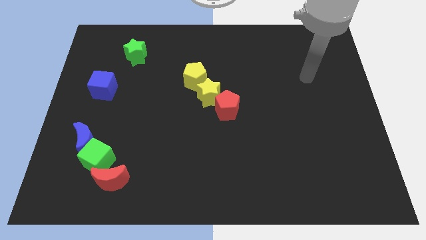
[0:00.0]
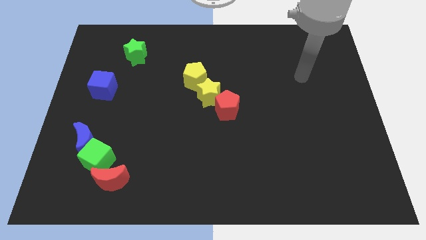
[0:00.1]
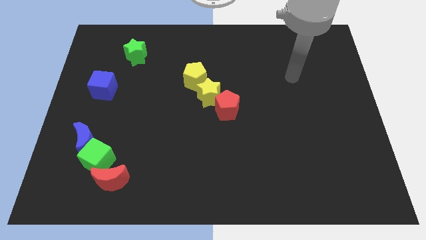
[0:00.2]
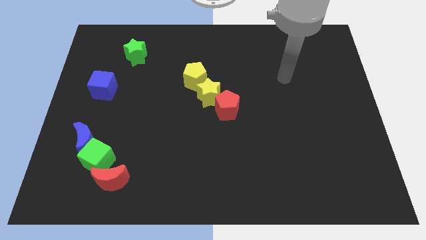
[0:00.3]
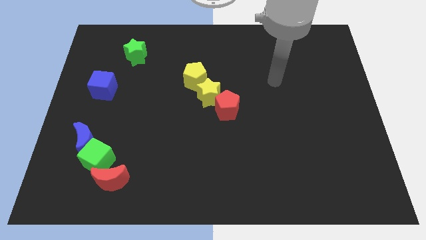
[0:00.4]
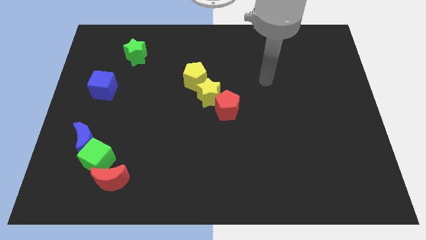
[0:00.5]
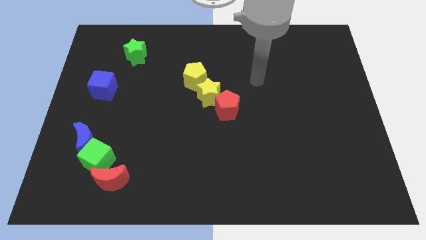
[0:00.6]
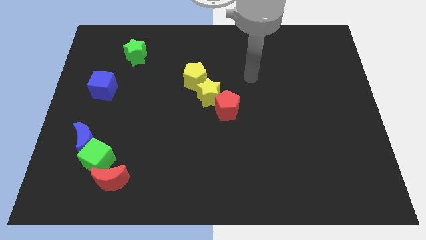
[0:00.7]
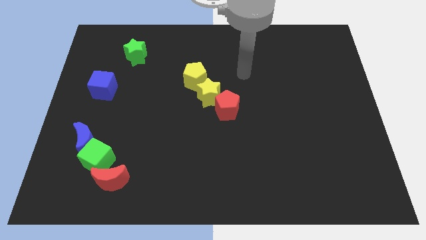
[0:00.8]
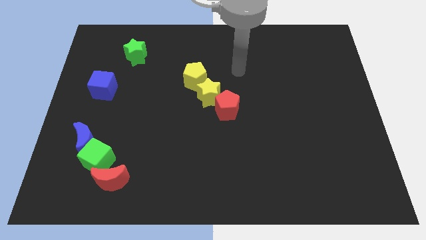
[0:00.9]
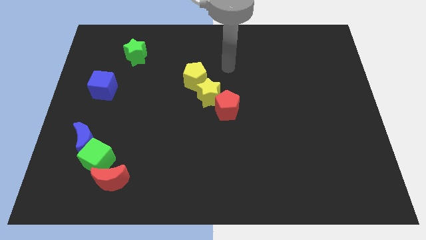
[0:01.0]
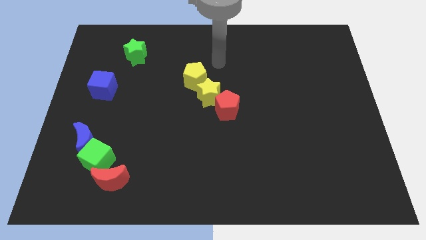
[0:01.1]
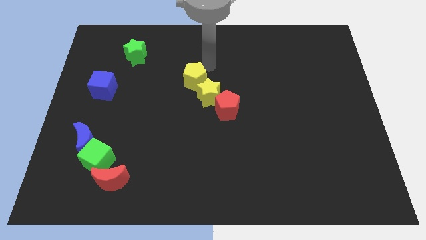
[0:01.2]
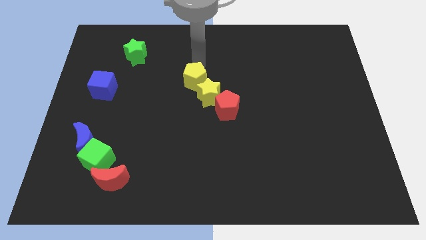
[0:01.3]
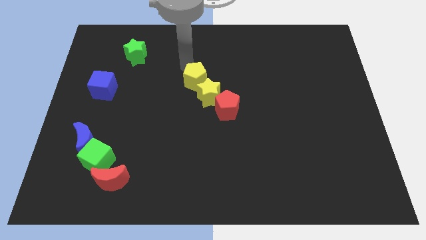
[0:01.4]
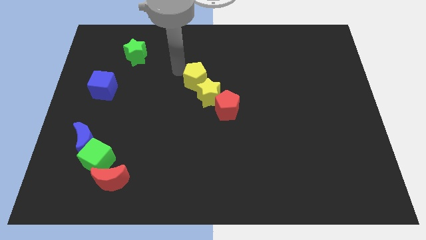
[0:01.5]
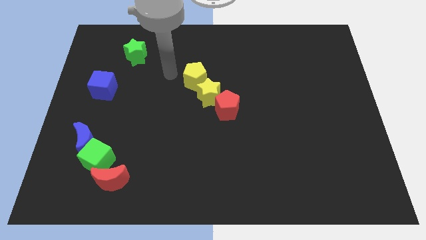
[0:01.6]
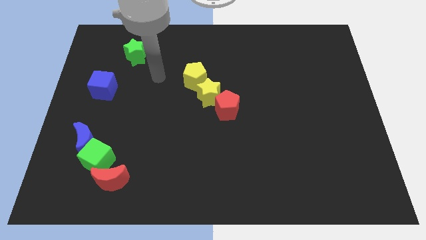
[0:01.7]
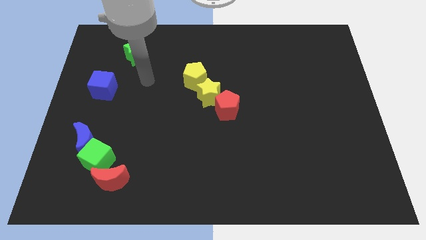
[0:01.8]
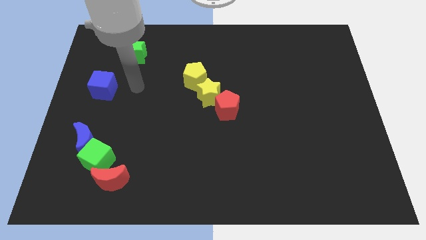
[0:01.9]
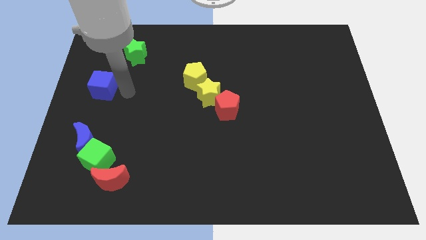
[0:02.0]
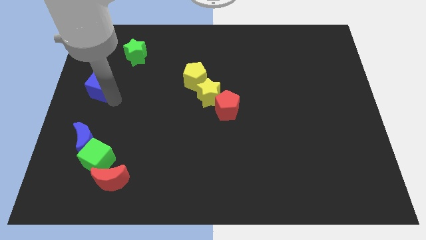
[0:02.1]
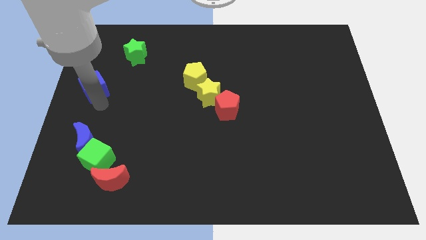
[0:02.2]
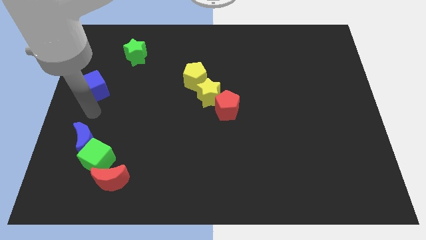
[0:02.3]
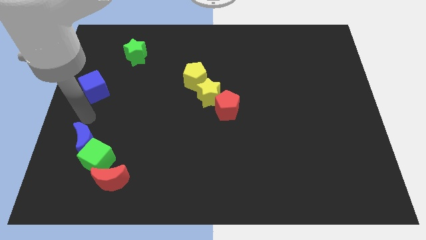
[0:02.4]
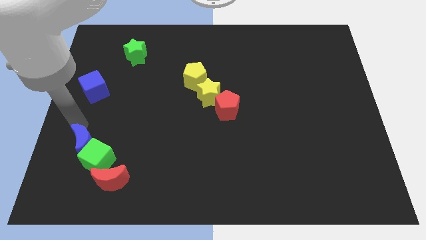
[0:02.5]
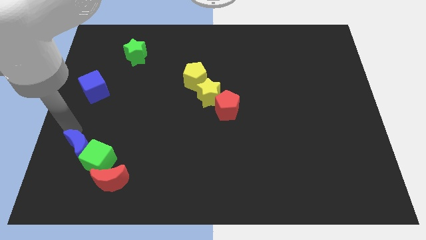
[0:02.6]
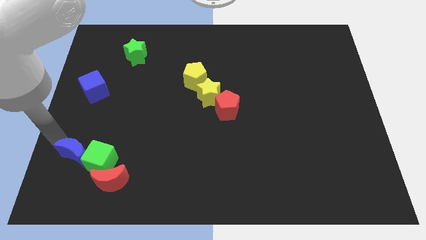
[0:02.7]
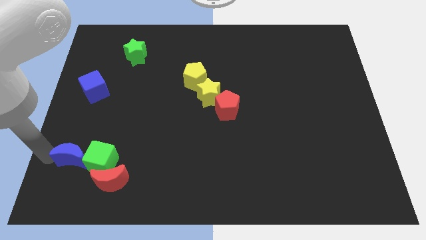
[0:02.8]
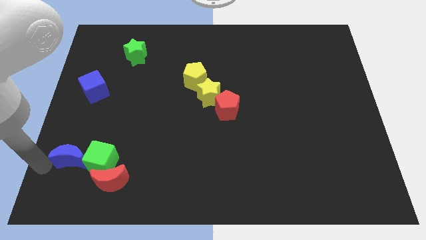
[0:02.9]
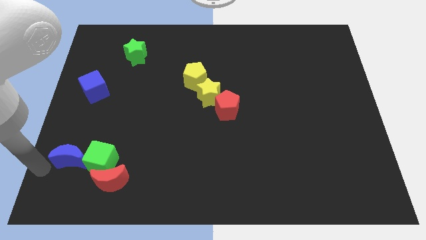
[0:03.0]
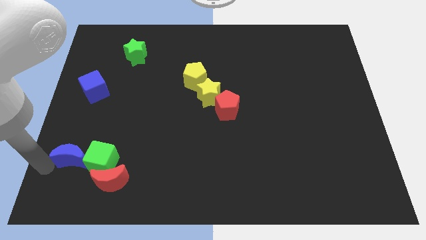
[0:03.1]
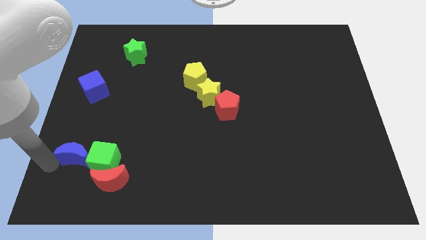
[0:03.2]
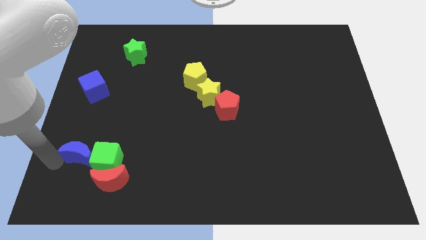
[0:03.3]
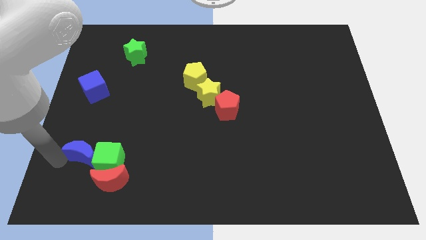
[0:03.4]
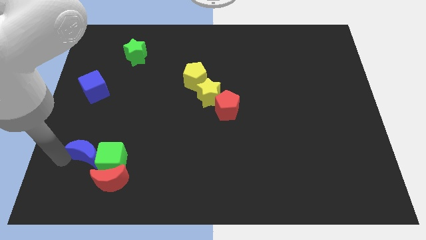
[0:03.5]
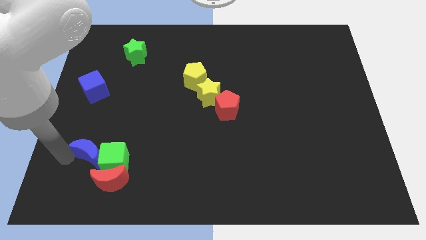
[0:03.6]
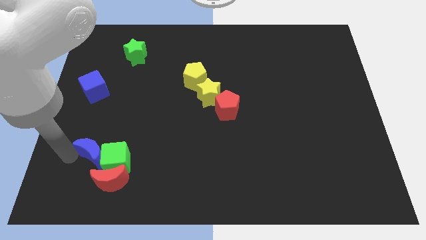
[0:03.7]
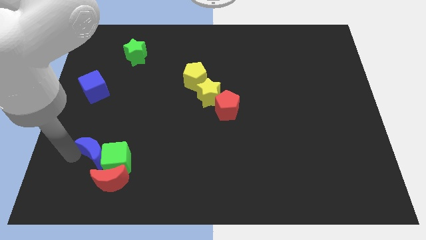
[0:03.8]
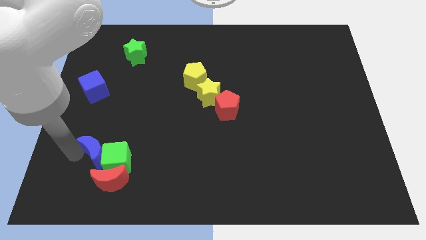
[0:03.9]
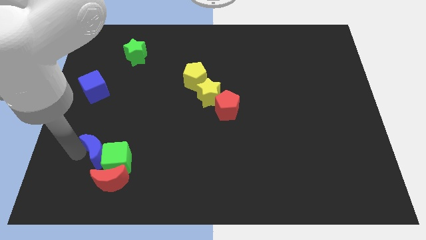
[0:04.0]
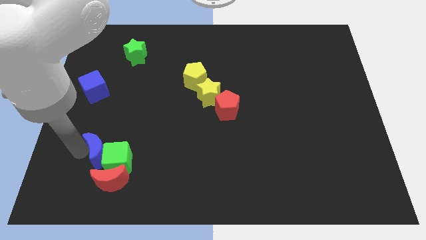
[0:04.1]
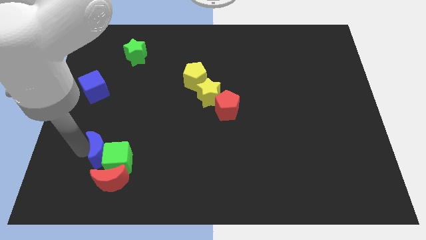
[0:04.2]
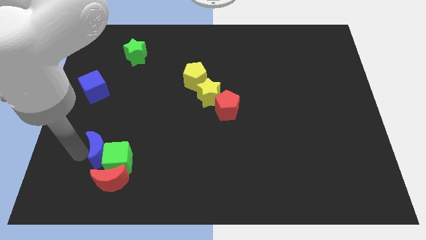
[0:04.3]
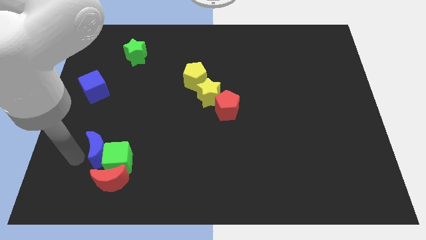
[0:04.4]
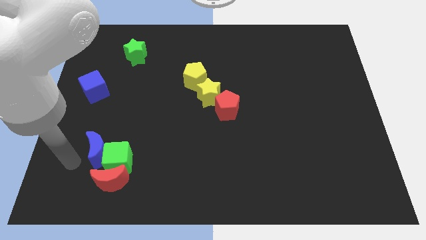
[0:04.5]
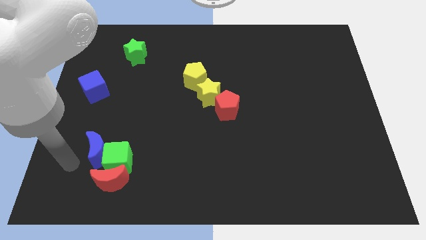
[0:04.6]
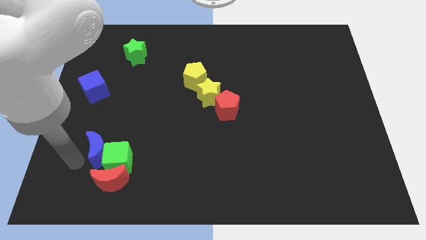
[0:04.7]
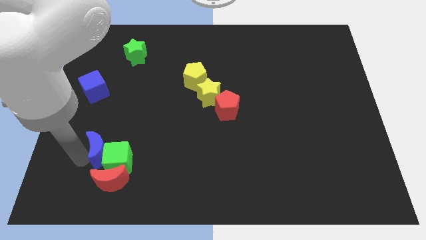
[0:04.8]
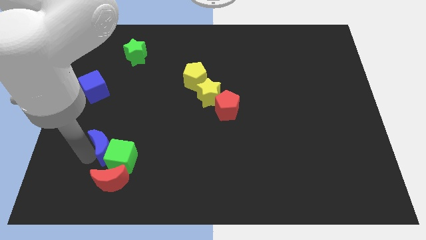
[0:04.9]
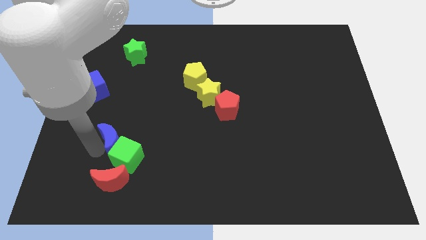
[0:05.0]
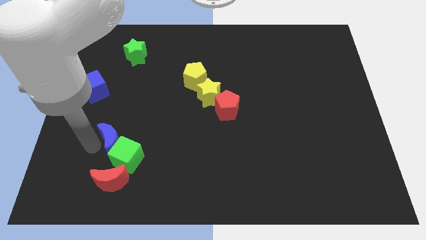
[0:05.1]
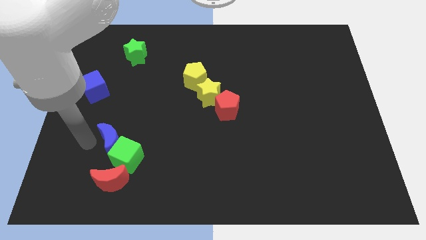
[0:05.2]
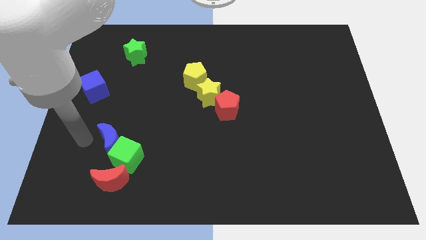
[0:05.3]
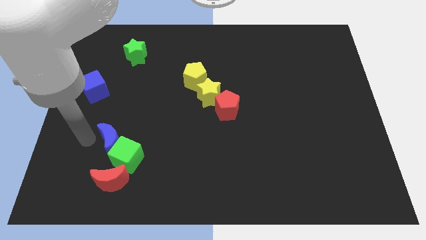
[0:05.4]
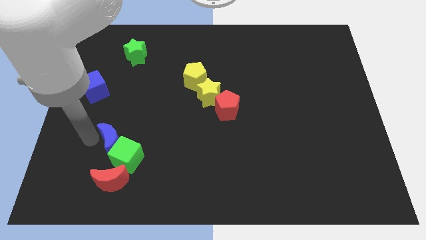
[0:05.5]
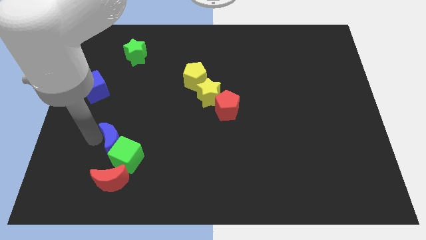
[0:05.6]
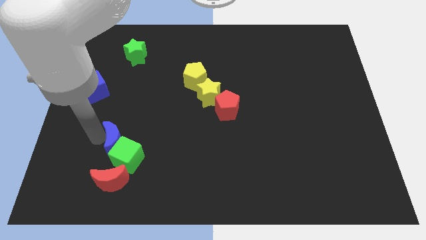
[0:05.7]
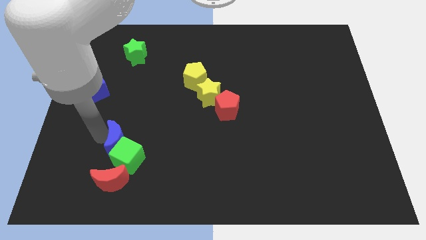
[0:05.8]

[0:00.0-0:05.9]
slightly move the blue moon right

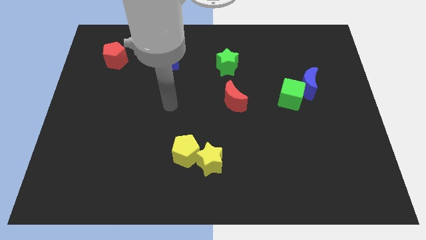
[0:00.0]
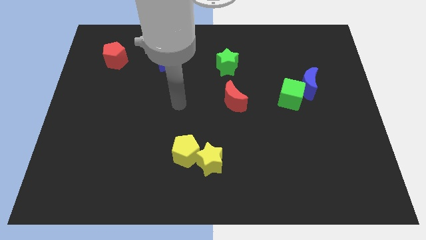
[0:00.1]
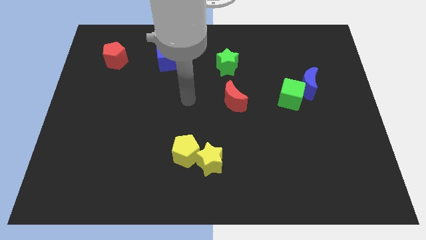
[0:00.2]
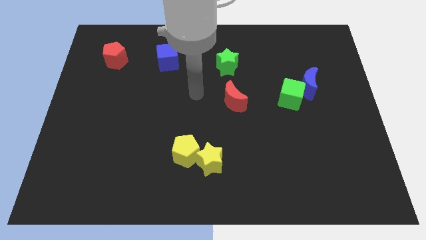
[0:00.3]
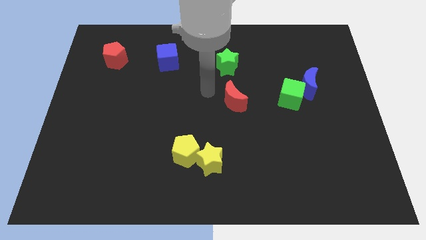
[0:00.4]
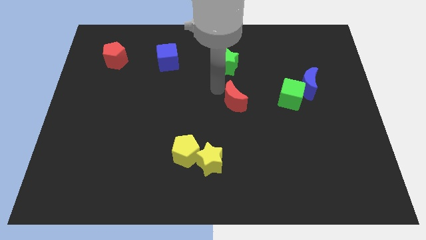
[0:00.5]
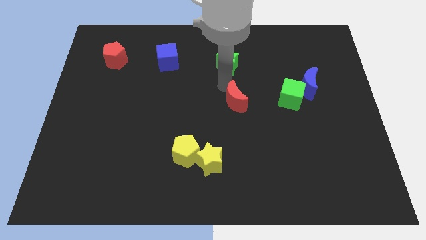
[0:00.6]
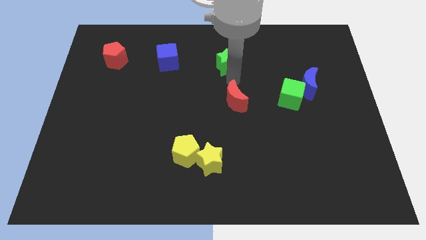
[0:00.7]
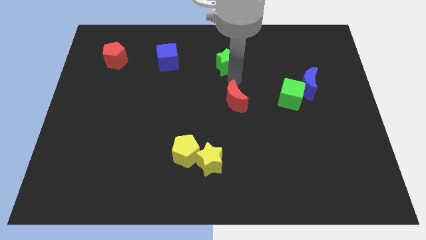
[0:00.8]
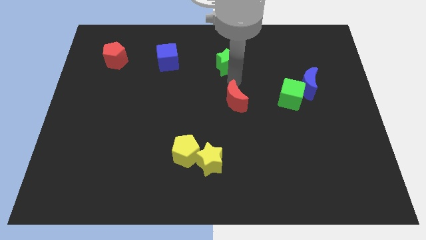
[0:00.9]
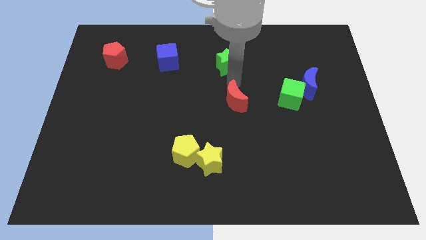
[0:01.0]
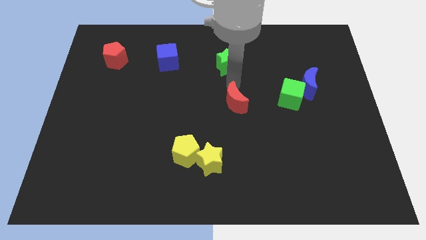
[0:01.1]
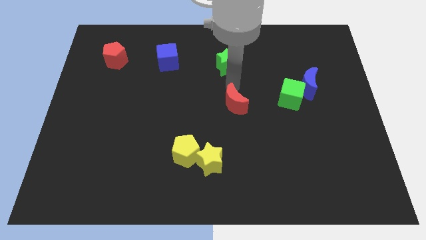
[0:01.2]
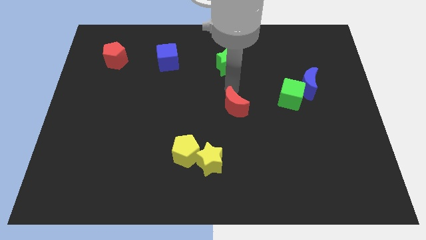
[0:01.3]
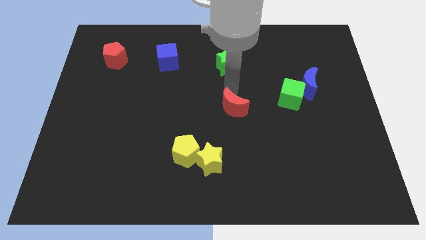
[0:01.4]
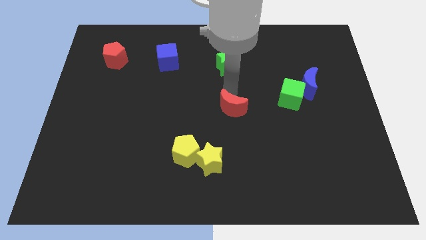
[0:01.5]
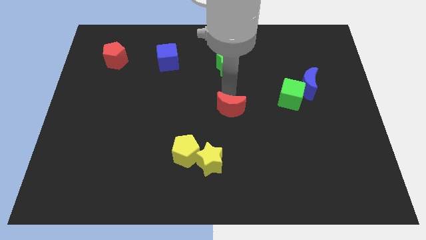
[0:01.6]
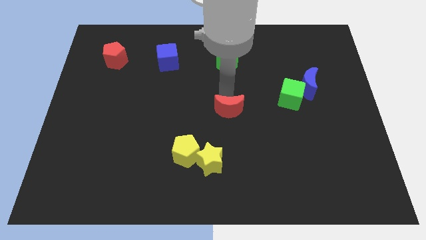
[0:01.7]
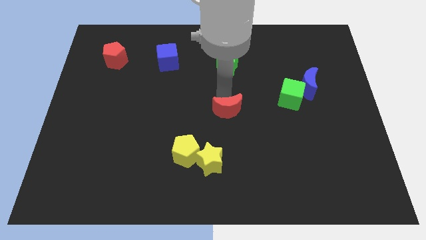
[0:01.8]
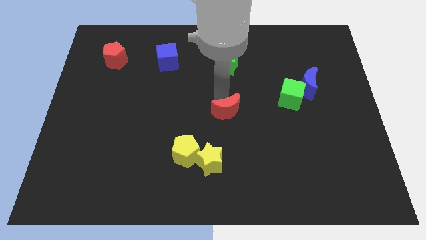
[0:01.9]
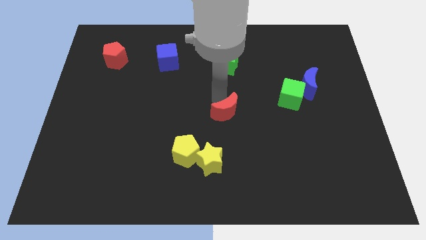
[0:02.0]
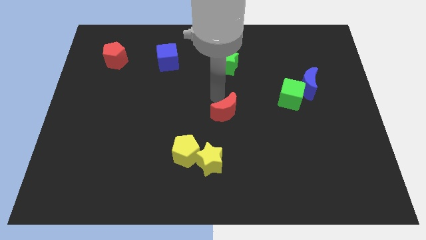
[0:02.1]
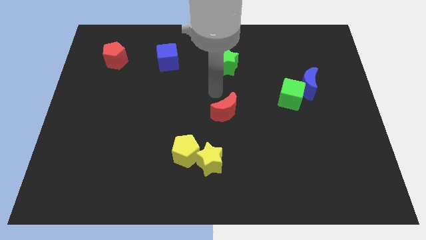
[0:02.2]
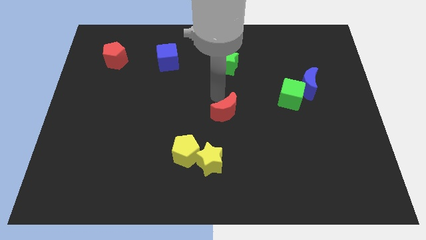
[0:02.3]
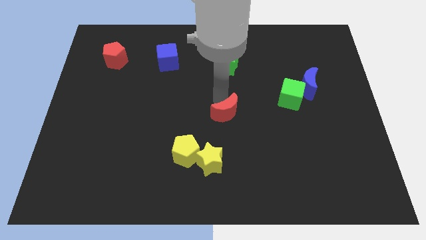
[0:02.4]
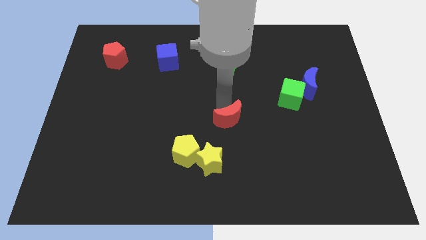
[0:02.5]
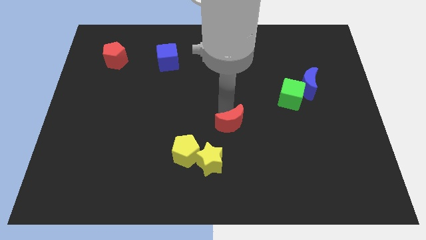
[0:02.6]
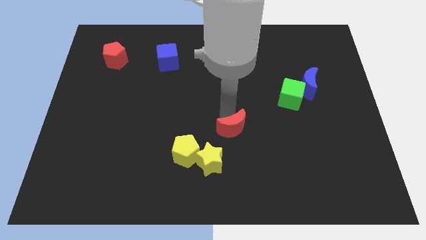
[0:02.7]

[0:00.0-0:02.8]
push the red moon a little downwards
